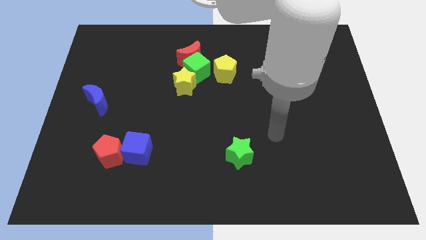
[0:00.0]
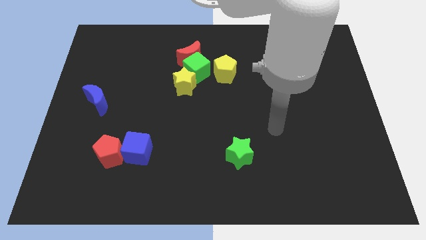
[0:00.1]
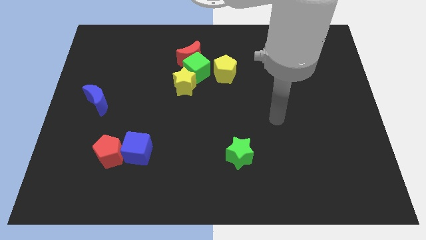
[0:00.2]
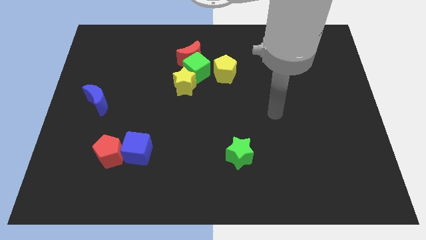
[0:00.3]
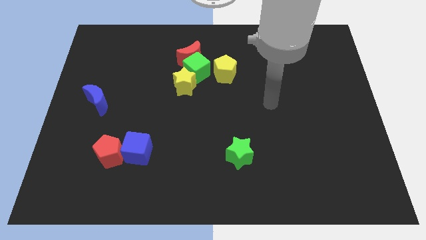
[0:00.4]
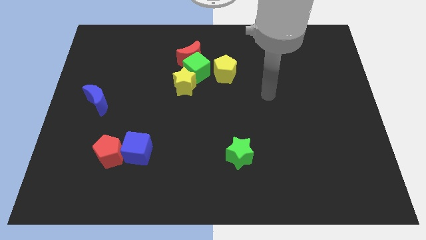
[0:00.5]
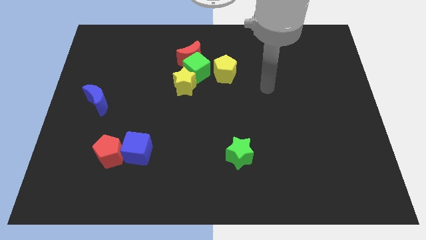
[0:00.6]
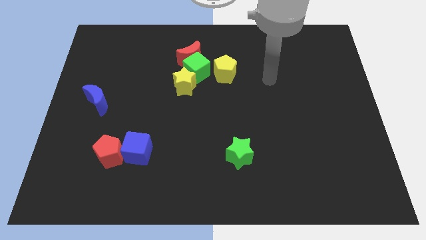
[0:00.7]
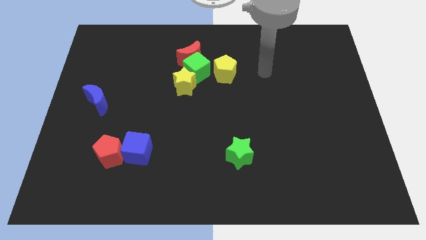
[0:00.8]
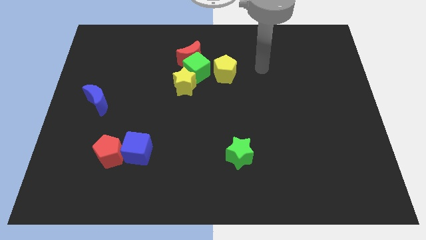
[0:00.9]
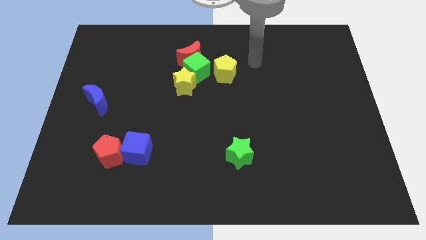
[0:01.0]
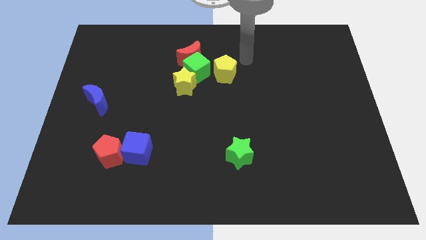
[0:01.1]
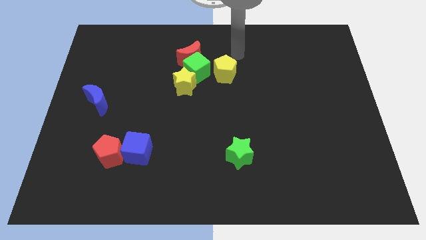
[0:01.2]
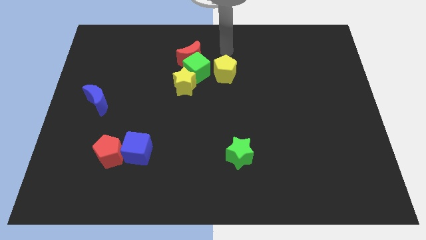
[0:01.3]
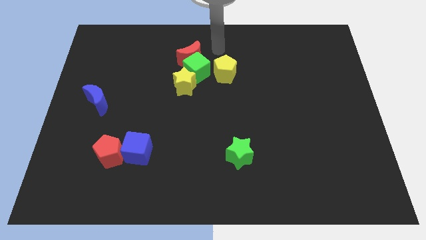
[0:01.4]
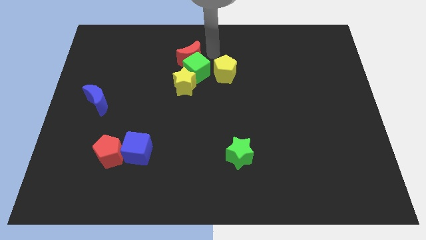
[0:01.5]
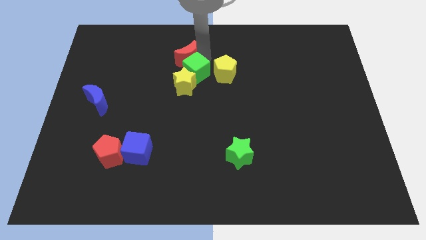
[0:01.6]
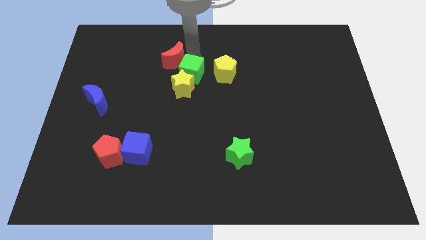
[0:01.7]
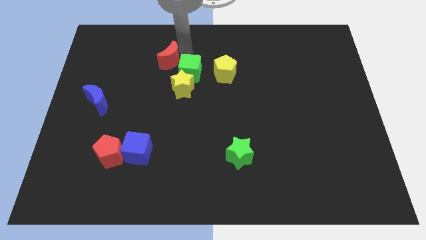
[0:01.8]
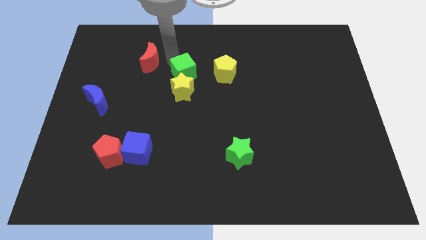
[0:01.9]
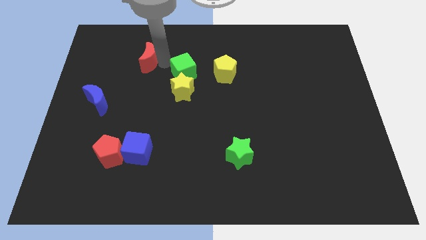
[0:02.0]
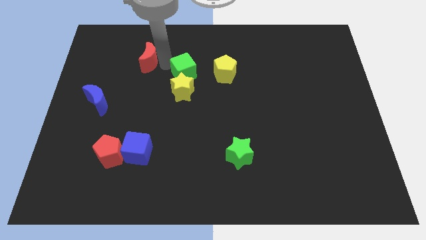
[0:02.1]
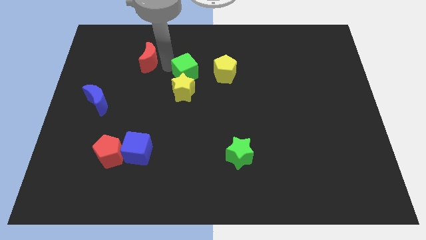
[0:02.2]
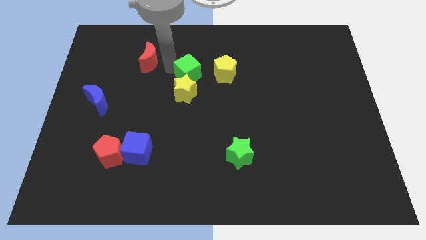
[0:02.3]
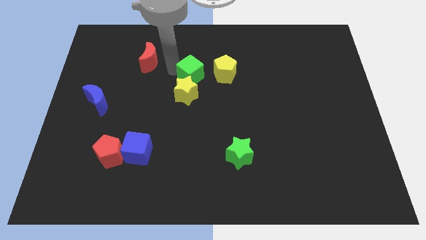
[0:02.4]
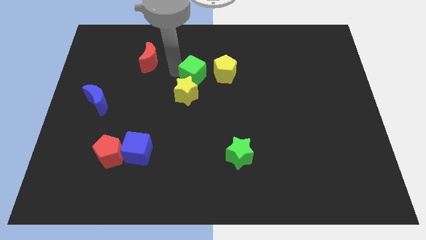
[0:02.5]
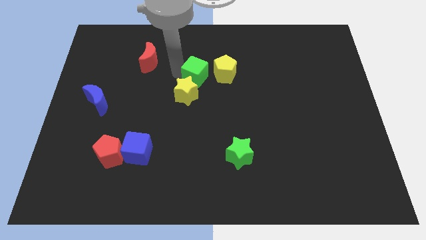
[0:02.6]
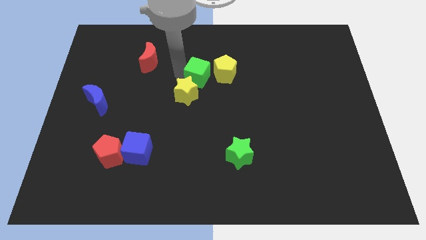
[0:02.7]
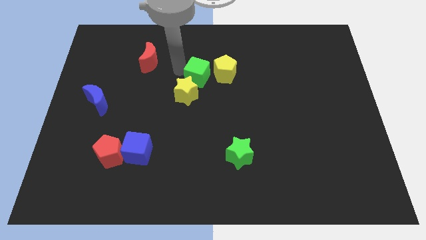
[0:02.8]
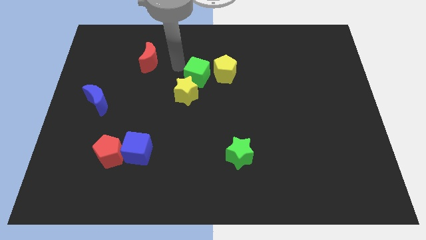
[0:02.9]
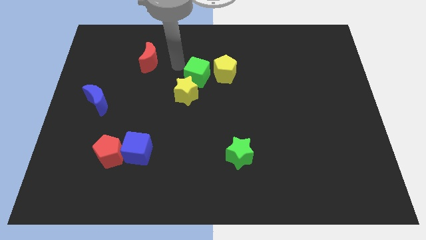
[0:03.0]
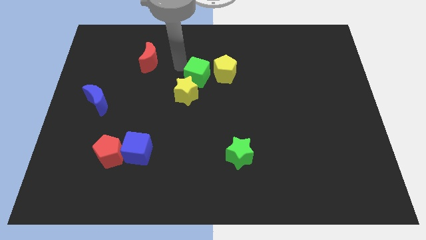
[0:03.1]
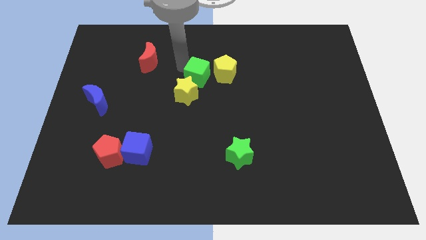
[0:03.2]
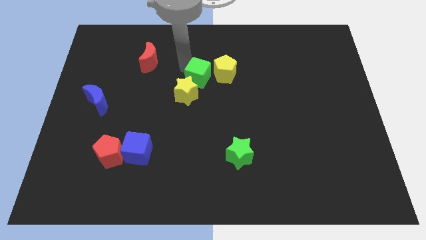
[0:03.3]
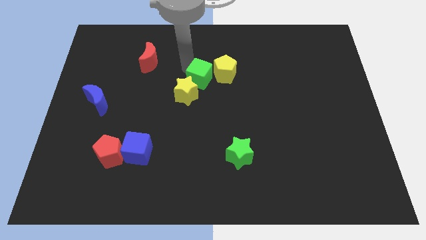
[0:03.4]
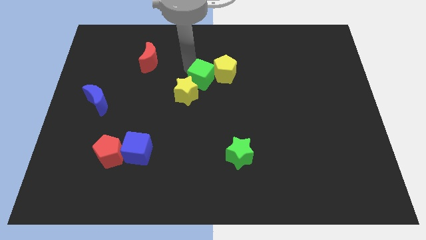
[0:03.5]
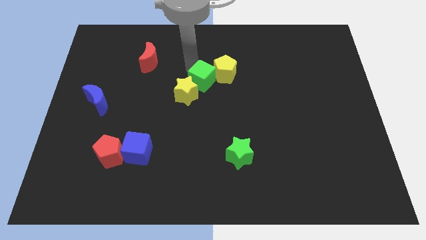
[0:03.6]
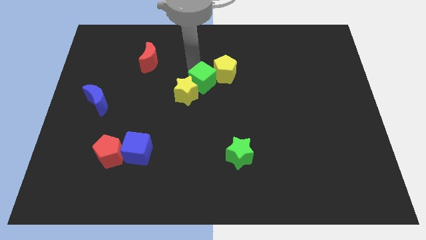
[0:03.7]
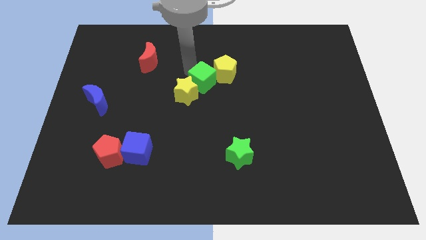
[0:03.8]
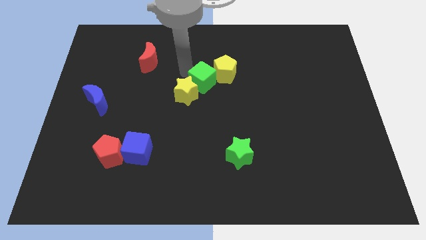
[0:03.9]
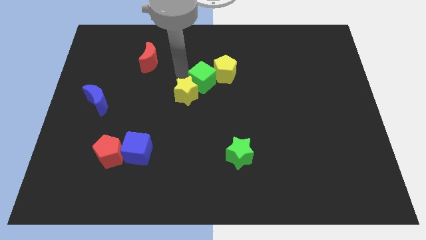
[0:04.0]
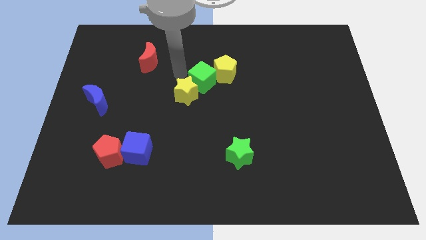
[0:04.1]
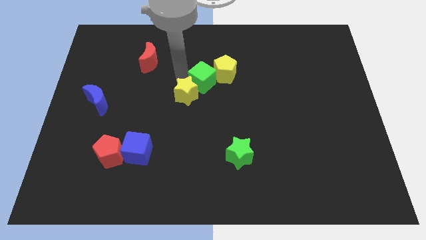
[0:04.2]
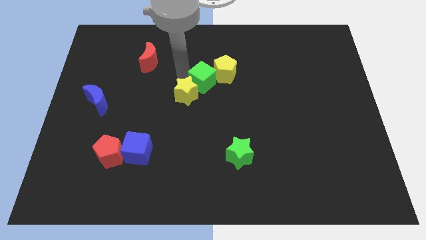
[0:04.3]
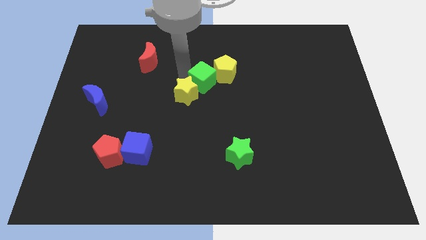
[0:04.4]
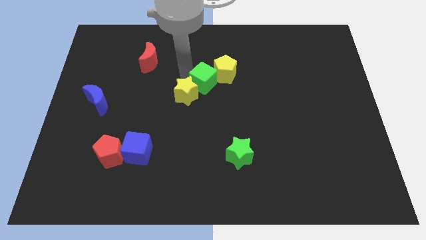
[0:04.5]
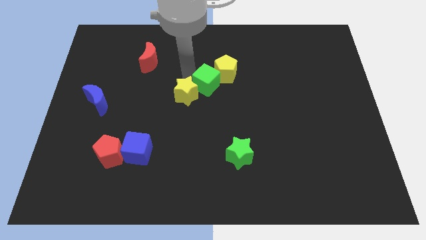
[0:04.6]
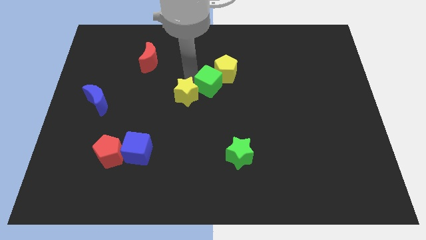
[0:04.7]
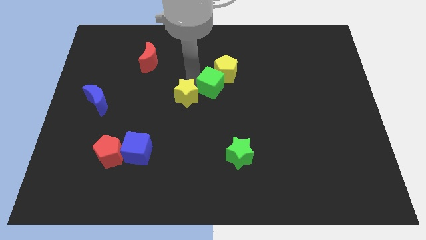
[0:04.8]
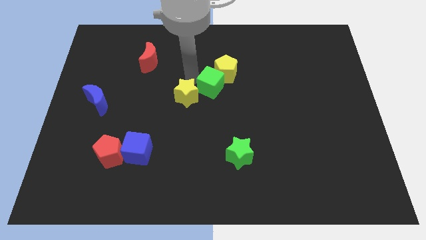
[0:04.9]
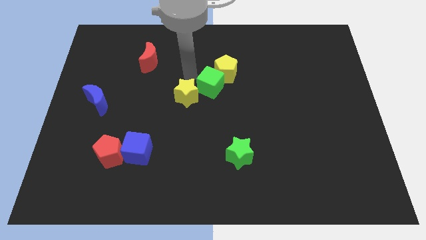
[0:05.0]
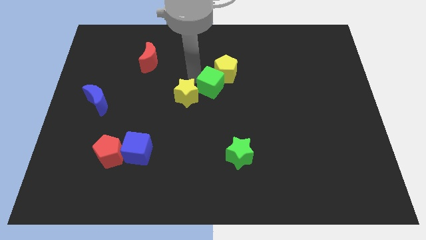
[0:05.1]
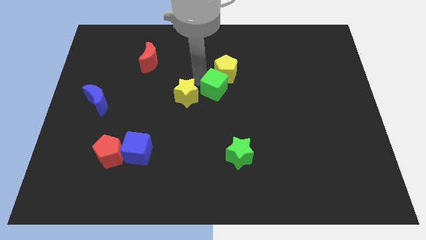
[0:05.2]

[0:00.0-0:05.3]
slightly slide the green cube diagonally downwards and to the right

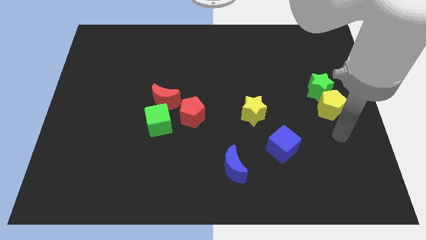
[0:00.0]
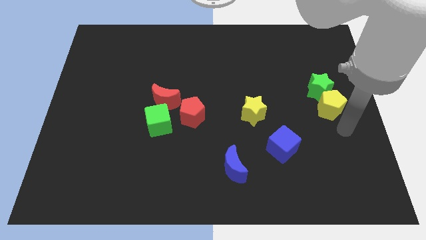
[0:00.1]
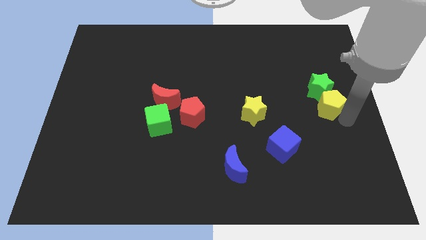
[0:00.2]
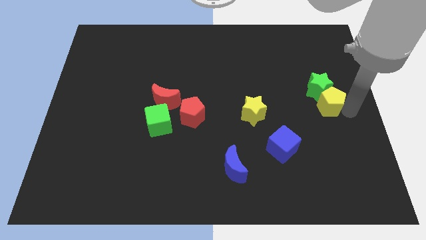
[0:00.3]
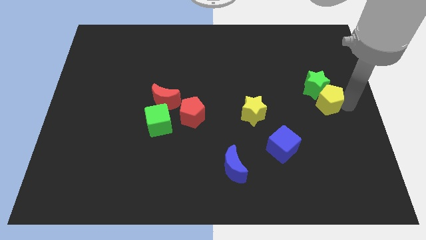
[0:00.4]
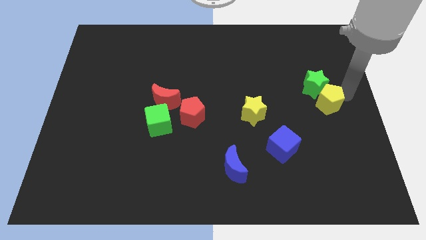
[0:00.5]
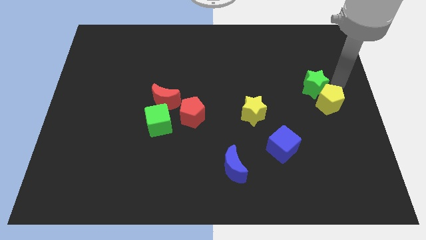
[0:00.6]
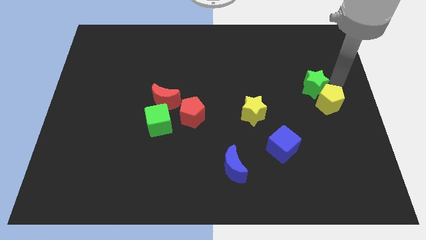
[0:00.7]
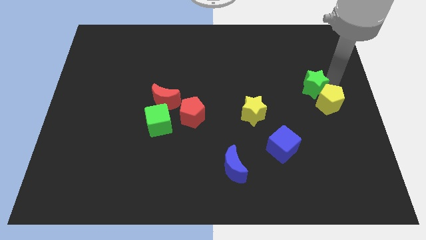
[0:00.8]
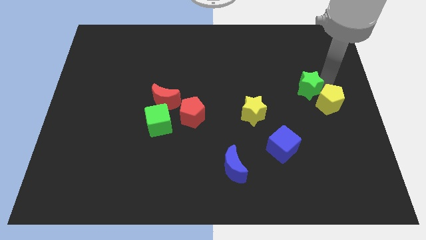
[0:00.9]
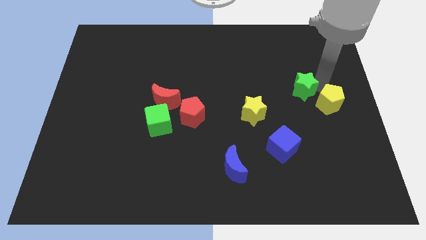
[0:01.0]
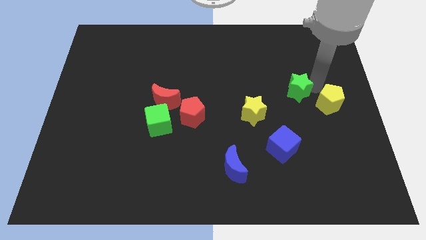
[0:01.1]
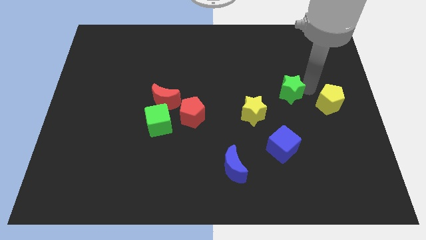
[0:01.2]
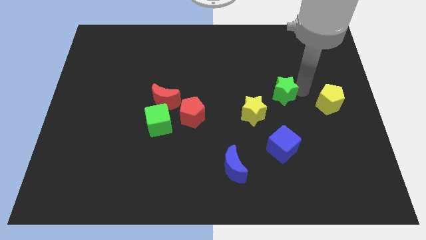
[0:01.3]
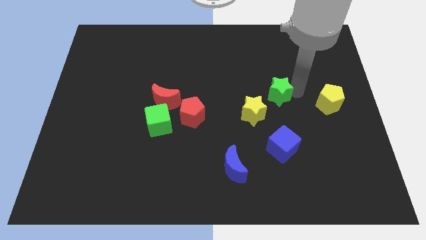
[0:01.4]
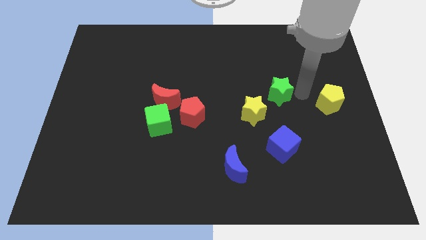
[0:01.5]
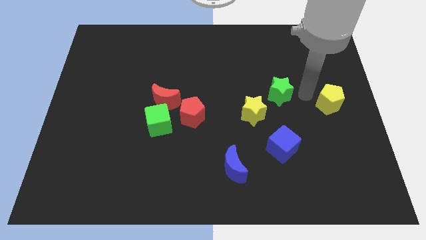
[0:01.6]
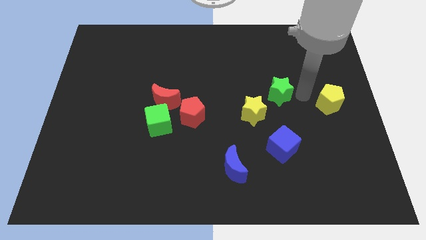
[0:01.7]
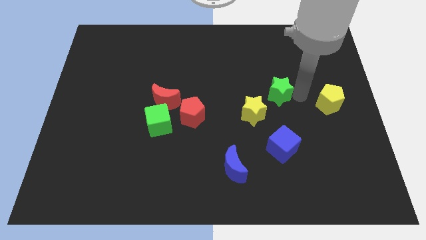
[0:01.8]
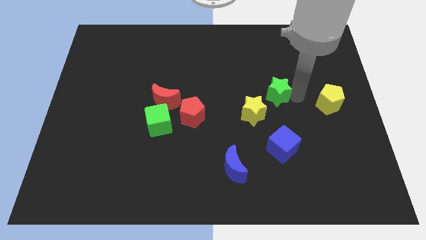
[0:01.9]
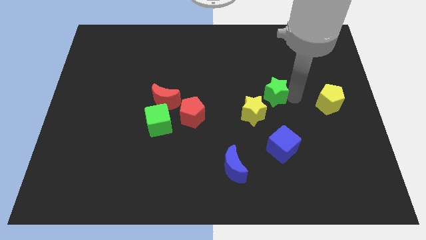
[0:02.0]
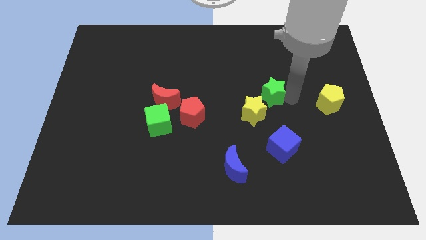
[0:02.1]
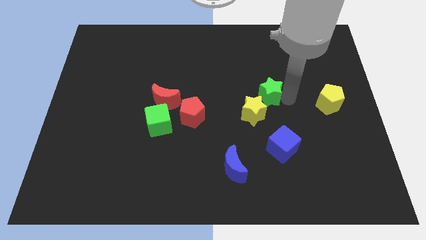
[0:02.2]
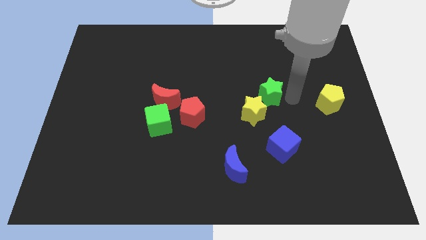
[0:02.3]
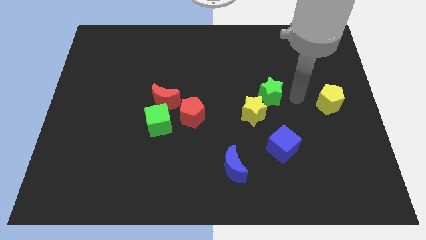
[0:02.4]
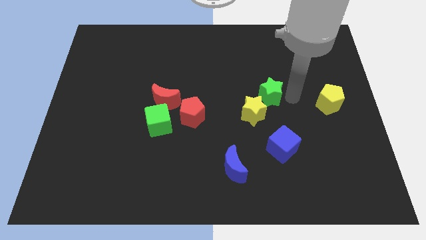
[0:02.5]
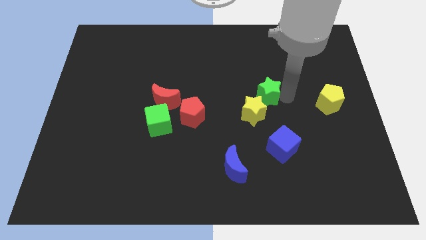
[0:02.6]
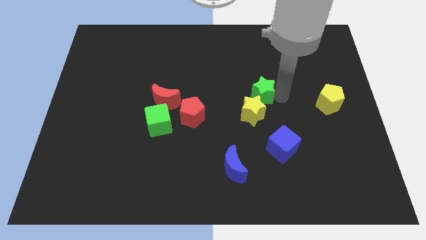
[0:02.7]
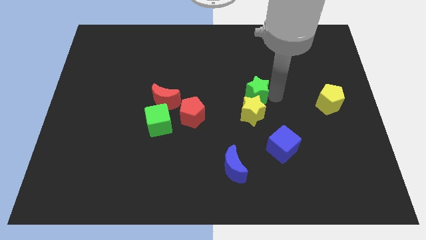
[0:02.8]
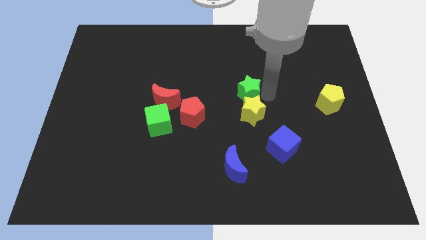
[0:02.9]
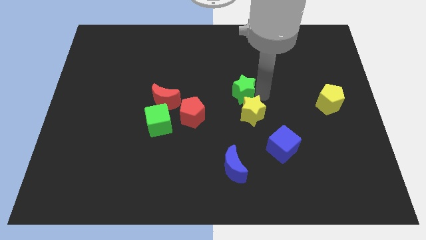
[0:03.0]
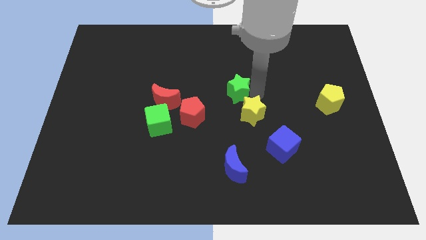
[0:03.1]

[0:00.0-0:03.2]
move the green star to the left
